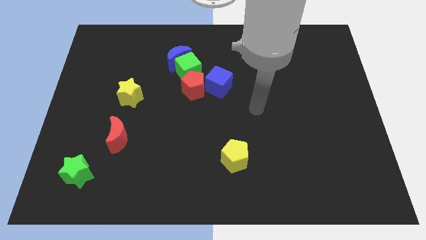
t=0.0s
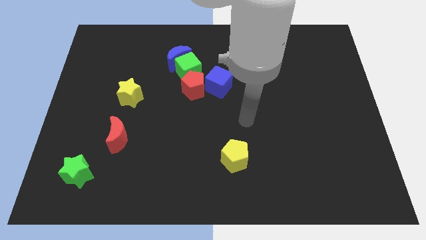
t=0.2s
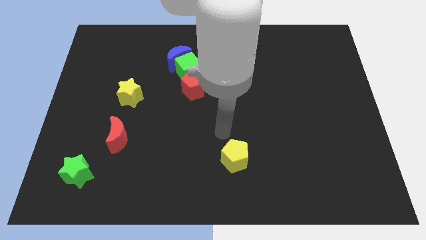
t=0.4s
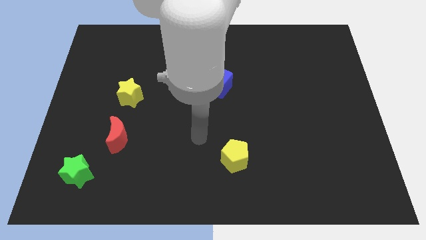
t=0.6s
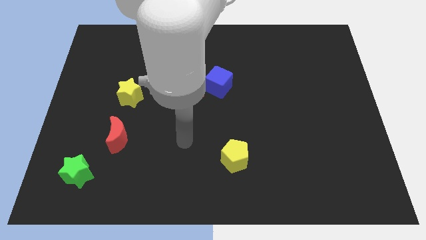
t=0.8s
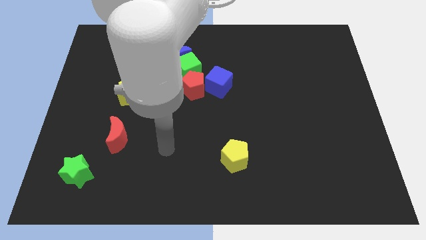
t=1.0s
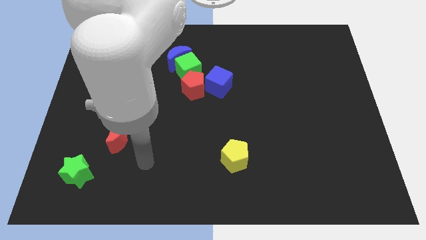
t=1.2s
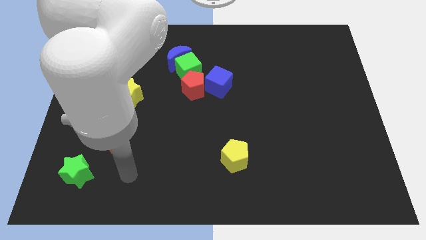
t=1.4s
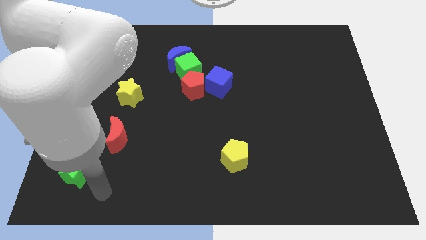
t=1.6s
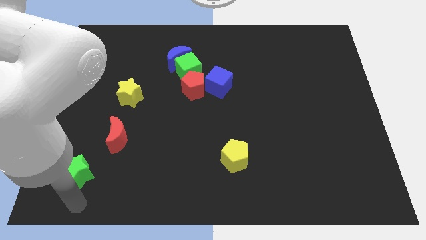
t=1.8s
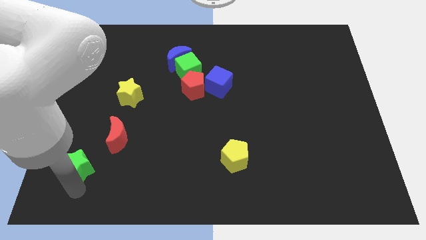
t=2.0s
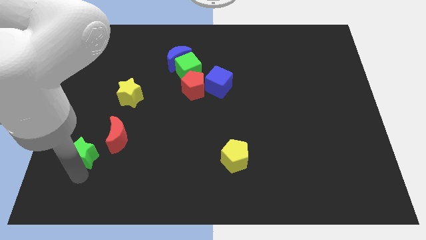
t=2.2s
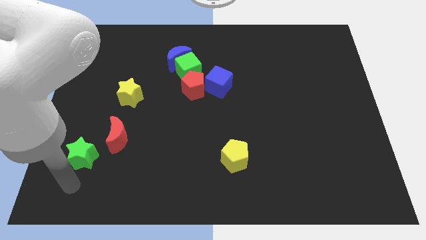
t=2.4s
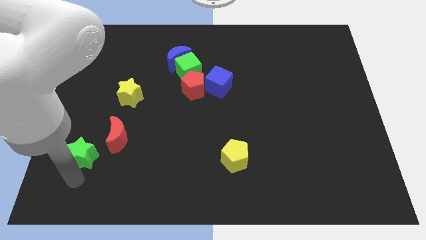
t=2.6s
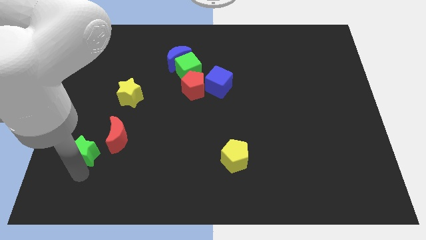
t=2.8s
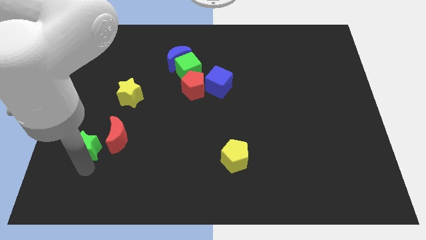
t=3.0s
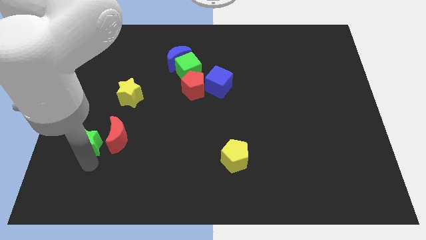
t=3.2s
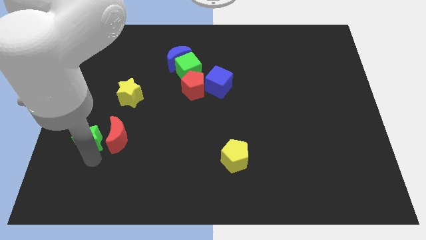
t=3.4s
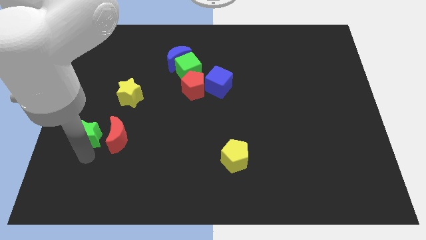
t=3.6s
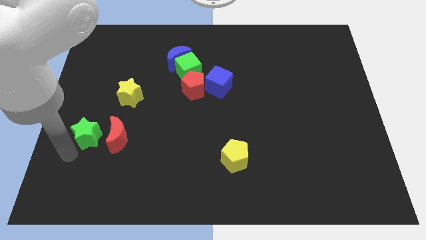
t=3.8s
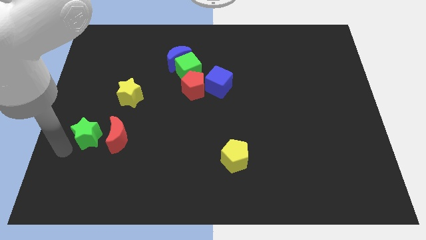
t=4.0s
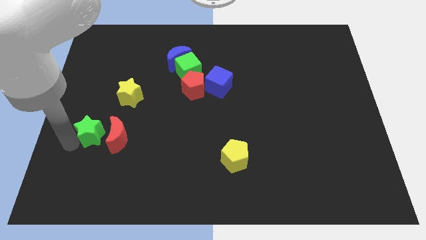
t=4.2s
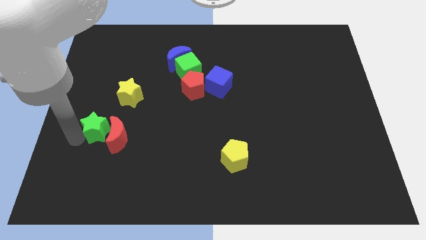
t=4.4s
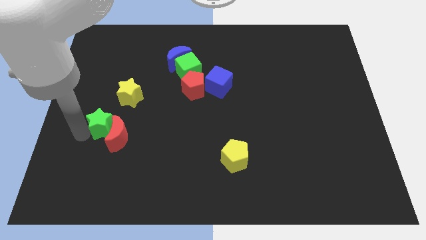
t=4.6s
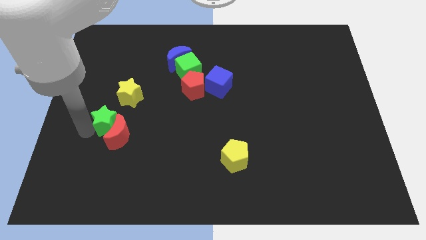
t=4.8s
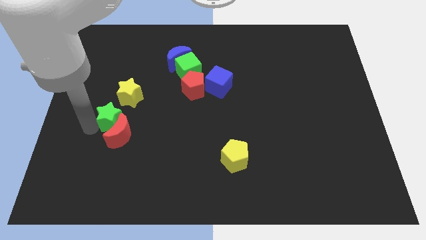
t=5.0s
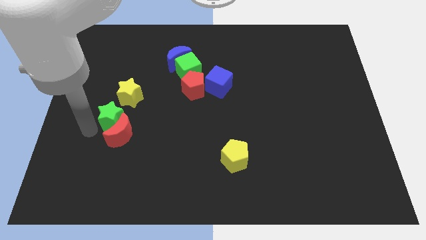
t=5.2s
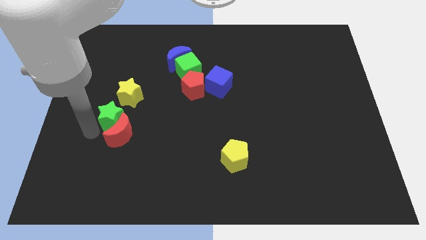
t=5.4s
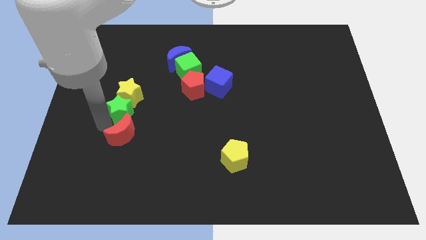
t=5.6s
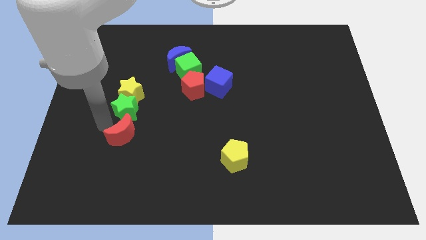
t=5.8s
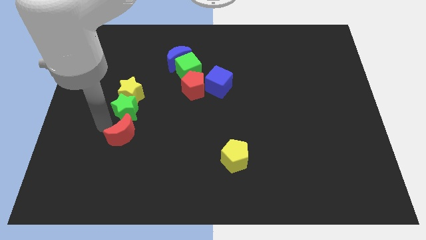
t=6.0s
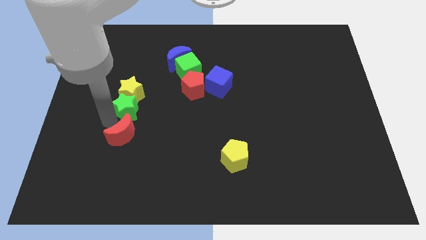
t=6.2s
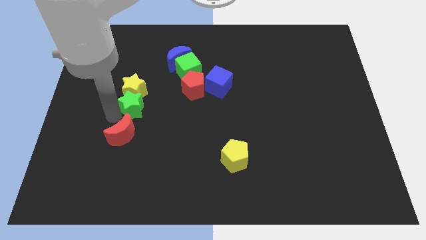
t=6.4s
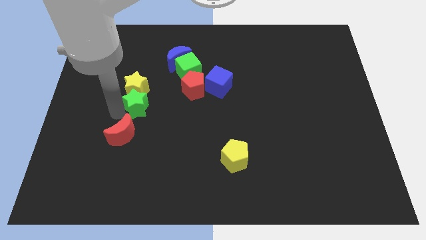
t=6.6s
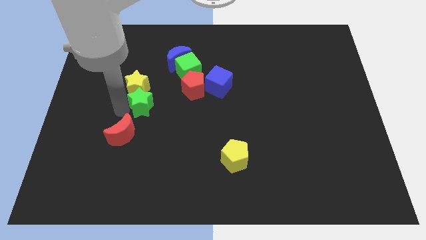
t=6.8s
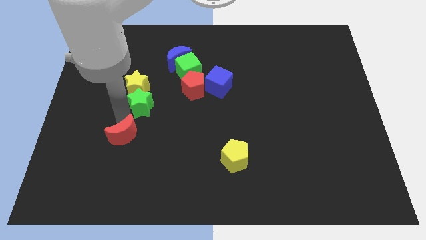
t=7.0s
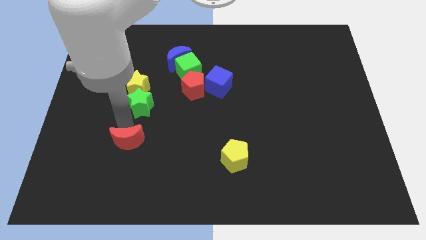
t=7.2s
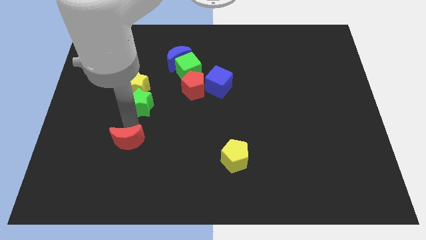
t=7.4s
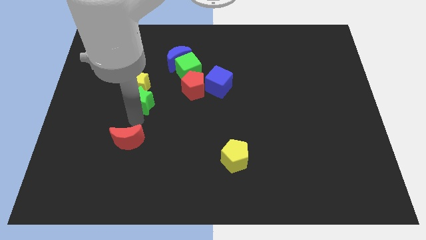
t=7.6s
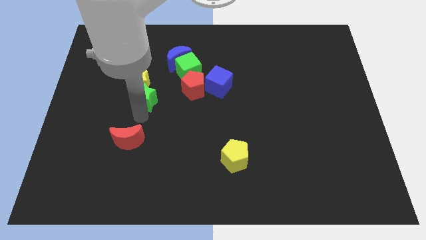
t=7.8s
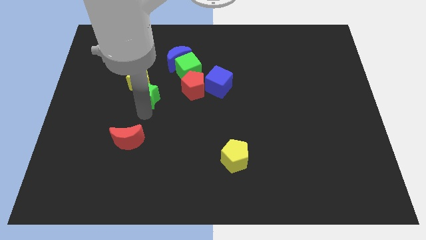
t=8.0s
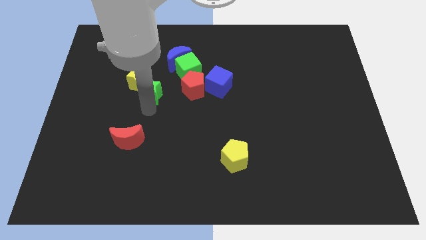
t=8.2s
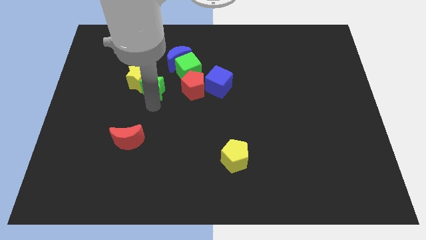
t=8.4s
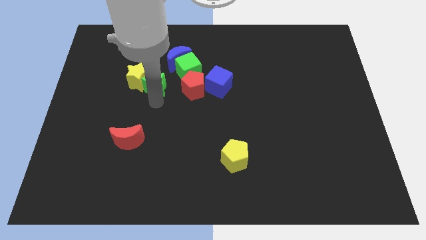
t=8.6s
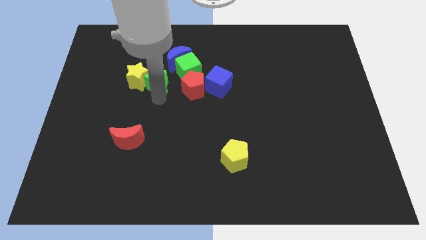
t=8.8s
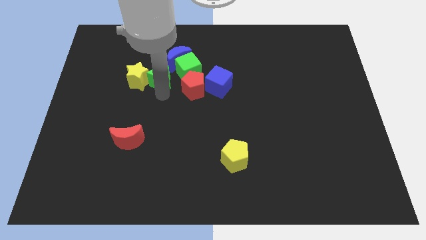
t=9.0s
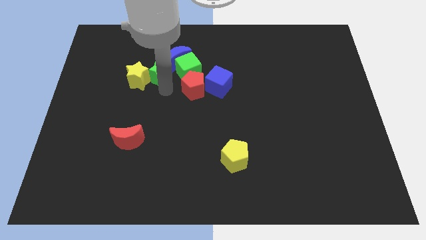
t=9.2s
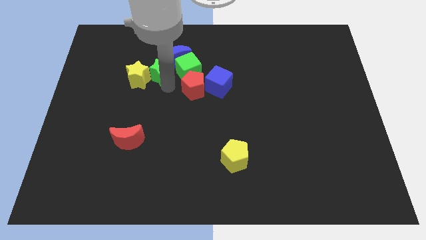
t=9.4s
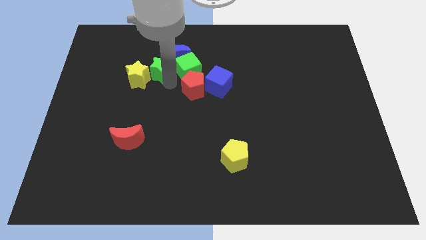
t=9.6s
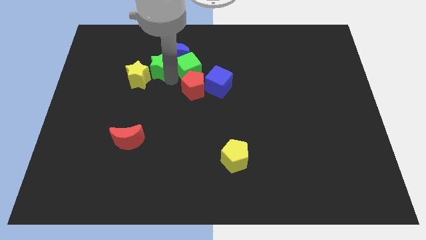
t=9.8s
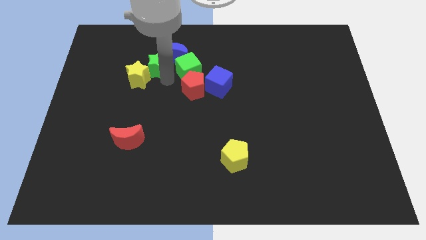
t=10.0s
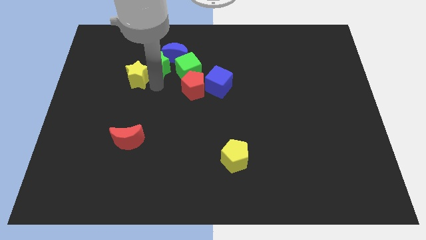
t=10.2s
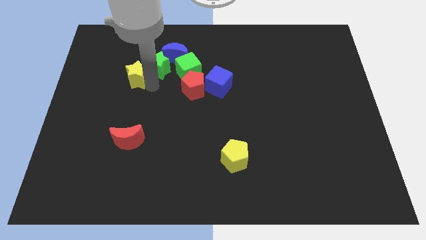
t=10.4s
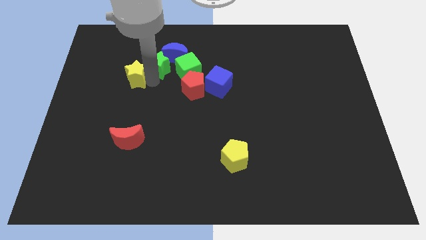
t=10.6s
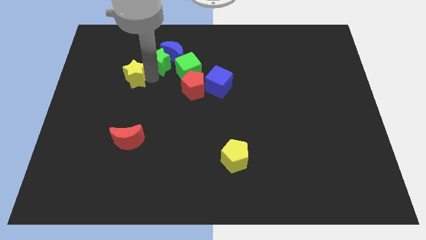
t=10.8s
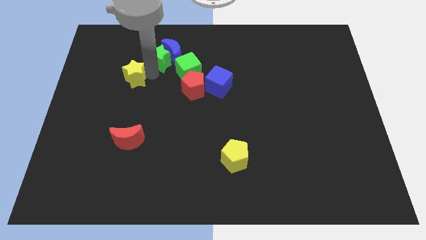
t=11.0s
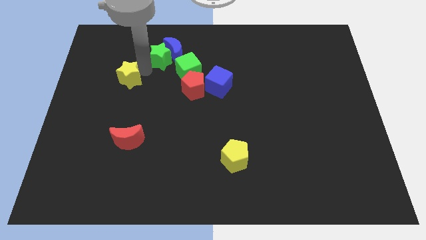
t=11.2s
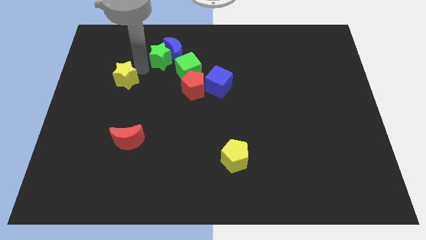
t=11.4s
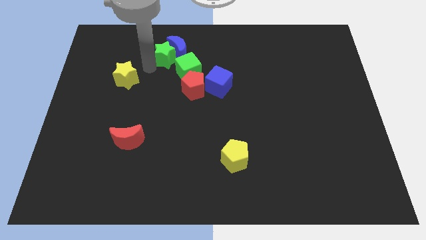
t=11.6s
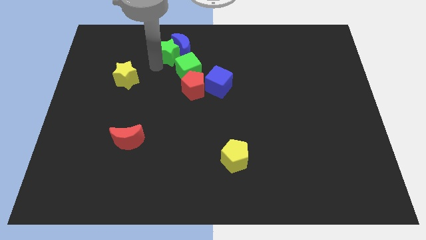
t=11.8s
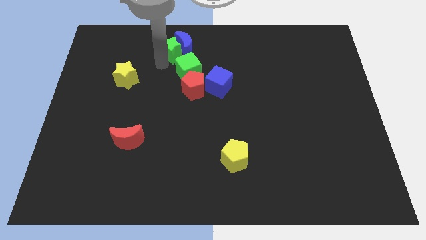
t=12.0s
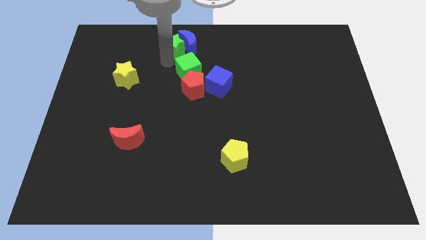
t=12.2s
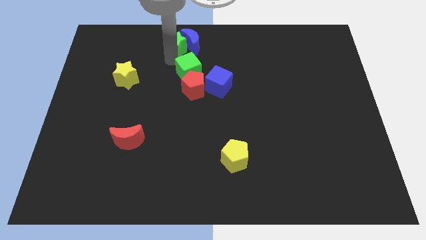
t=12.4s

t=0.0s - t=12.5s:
move the green star to the top side
